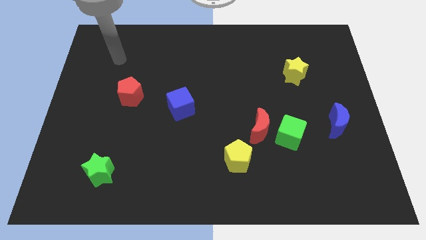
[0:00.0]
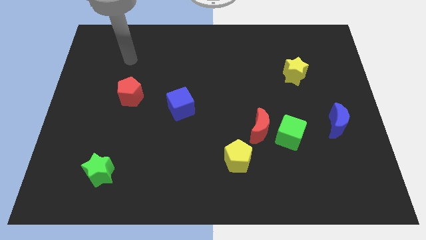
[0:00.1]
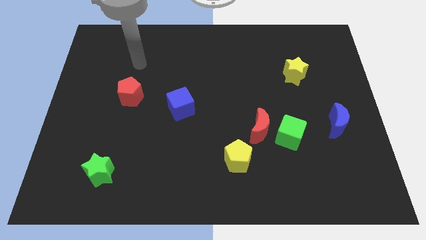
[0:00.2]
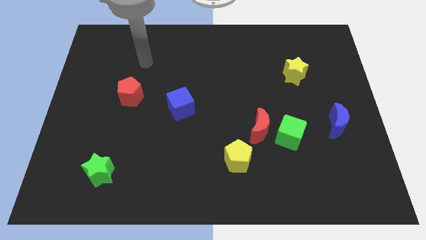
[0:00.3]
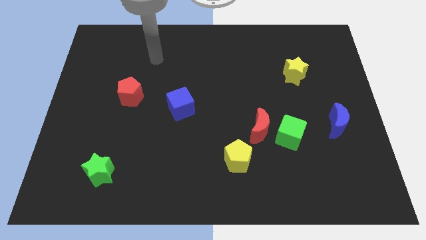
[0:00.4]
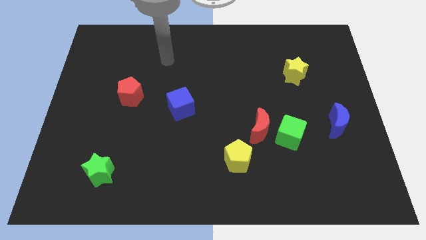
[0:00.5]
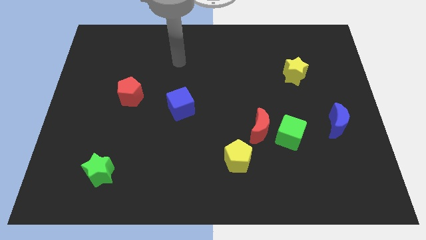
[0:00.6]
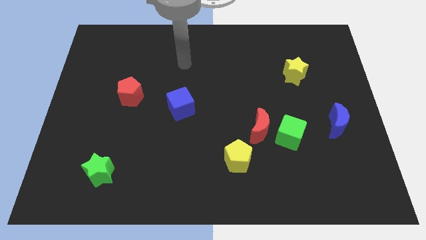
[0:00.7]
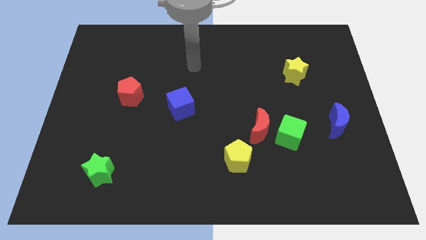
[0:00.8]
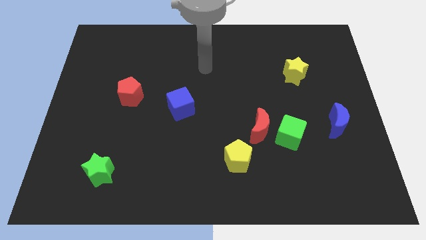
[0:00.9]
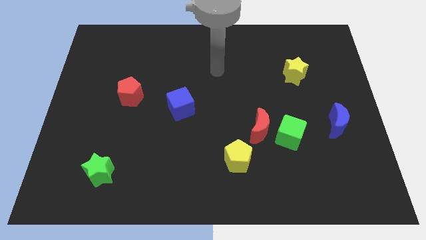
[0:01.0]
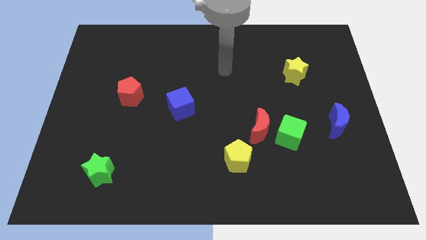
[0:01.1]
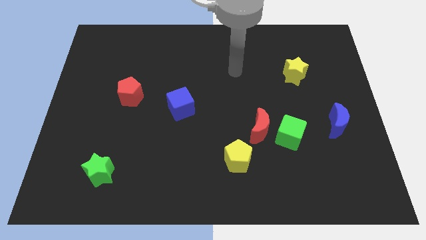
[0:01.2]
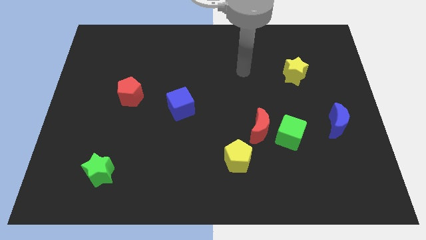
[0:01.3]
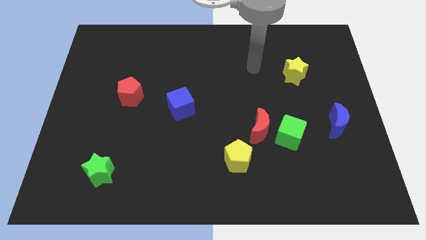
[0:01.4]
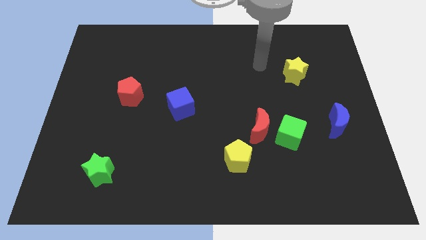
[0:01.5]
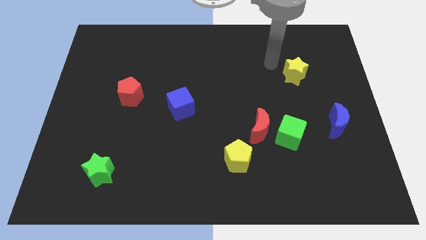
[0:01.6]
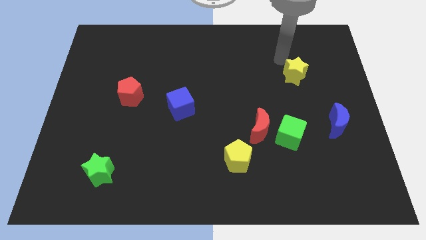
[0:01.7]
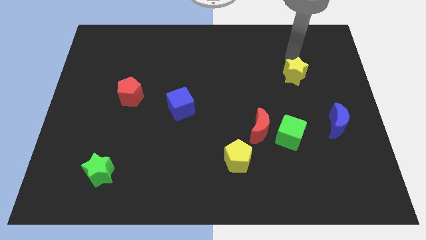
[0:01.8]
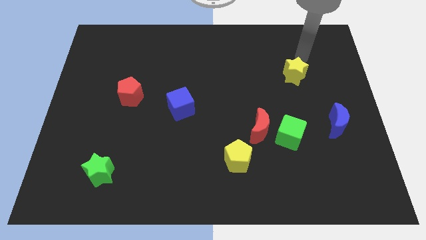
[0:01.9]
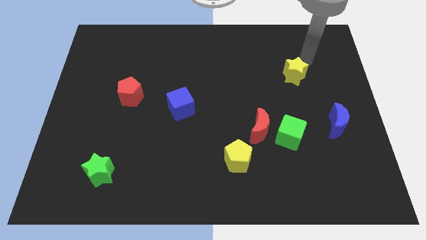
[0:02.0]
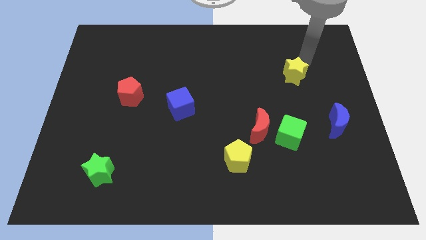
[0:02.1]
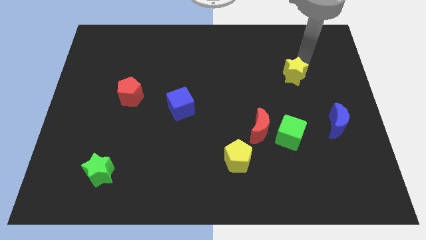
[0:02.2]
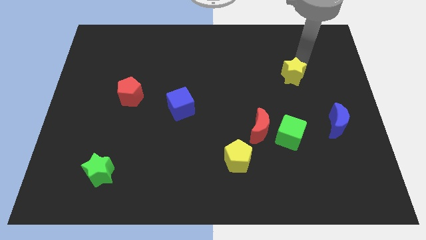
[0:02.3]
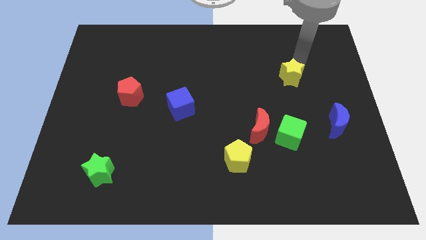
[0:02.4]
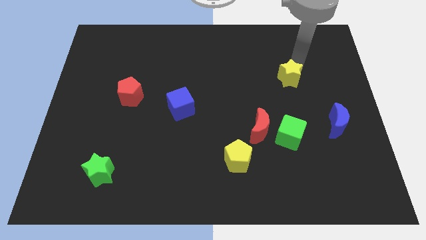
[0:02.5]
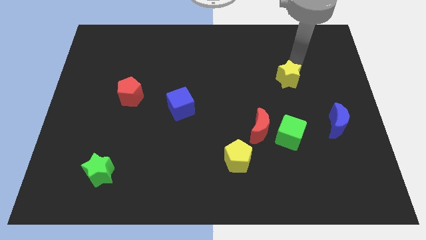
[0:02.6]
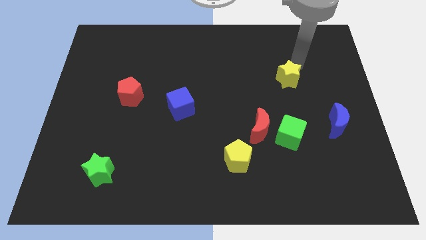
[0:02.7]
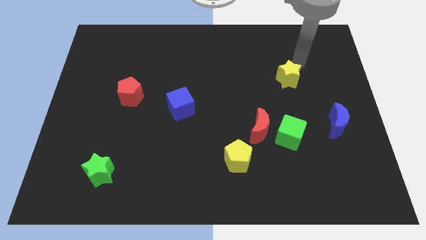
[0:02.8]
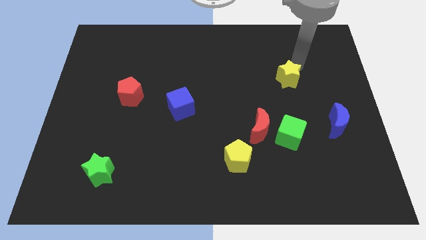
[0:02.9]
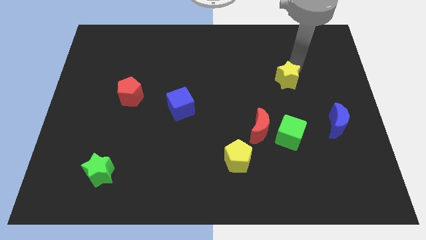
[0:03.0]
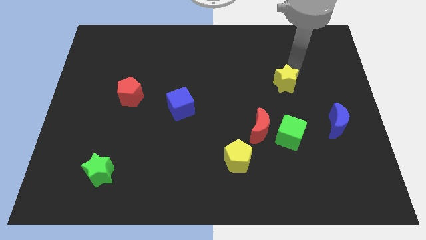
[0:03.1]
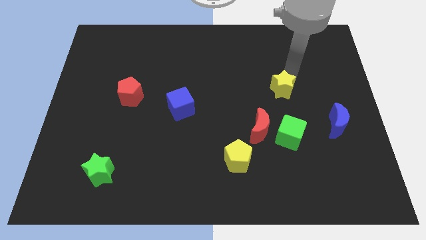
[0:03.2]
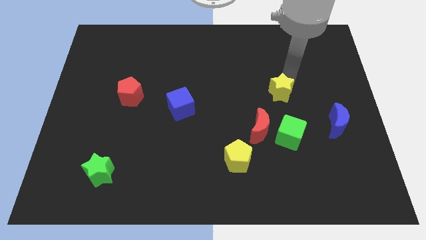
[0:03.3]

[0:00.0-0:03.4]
move the yellow star diagonally down and to the left a little bit

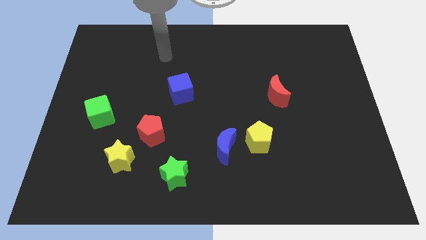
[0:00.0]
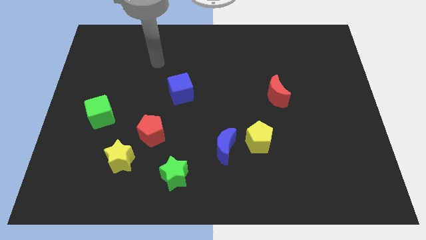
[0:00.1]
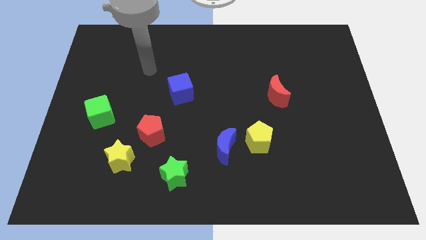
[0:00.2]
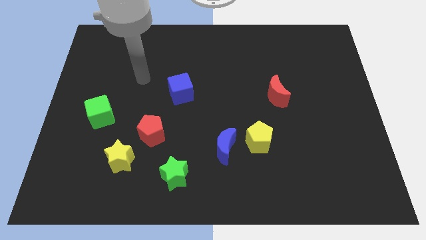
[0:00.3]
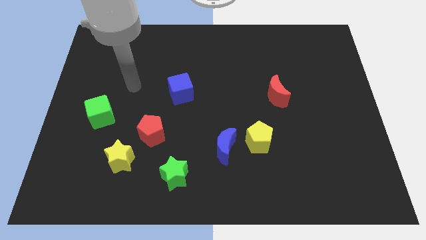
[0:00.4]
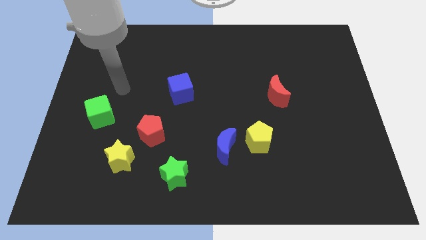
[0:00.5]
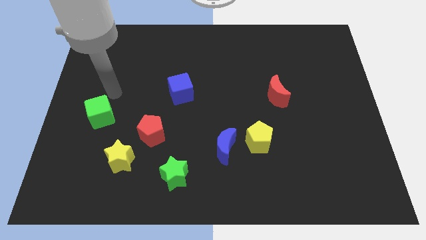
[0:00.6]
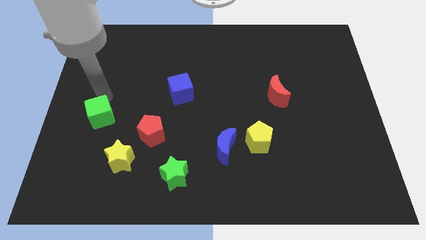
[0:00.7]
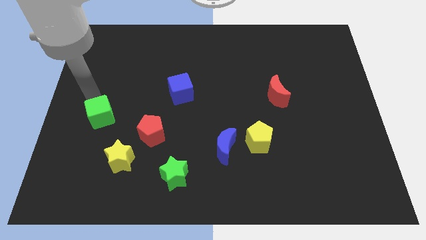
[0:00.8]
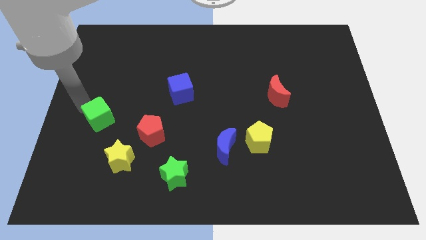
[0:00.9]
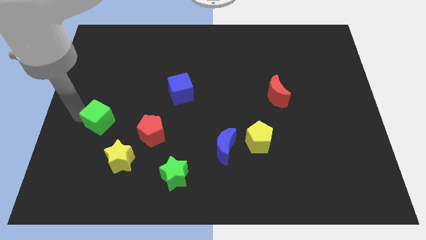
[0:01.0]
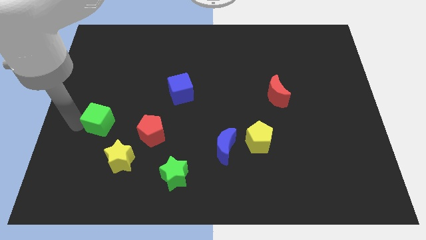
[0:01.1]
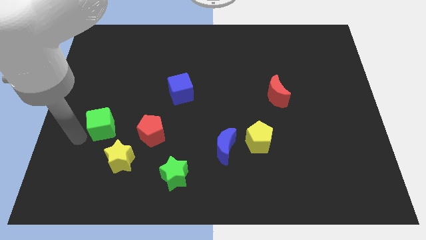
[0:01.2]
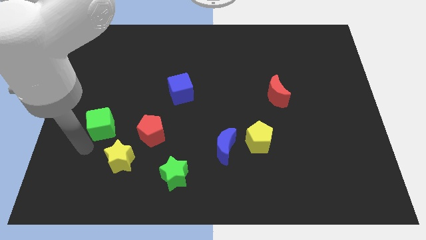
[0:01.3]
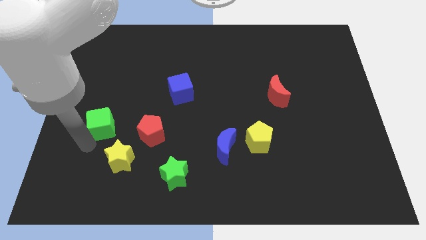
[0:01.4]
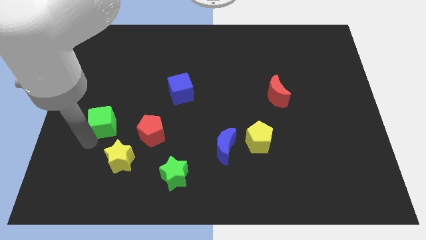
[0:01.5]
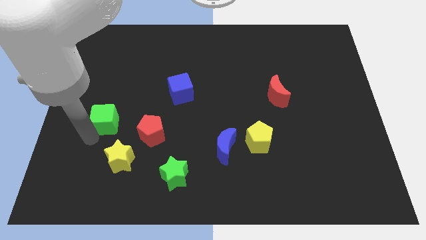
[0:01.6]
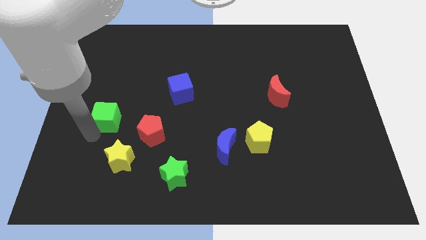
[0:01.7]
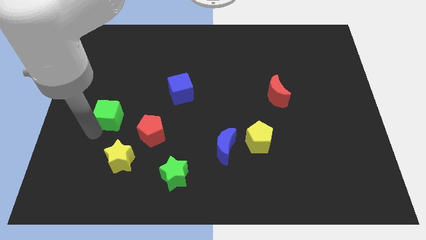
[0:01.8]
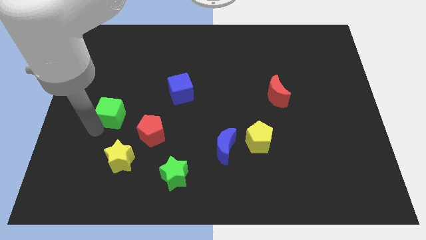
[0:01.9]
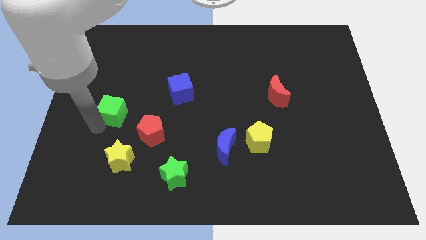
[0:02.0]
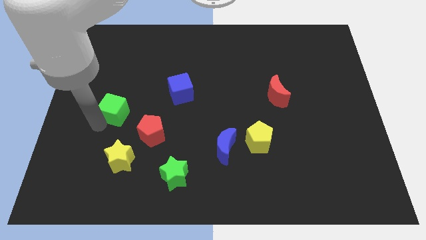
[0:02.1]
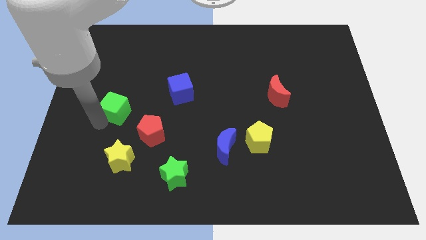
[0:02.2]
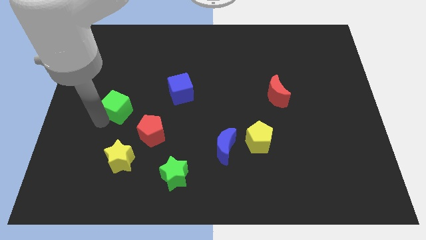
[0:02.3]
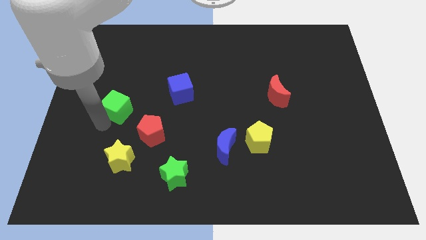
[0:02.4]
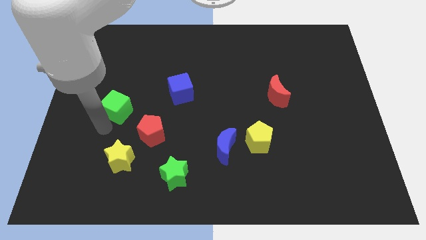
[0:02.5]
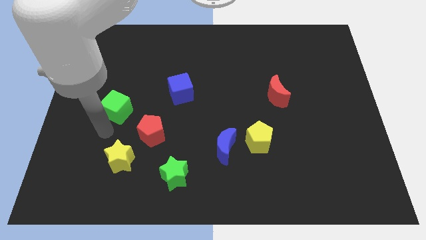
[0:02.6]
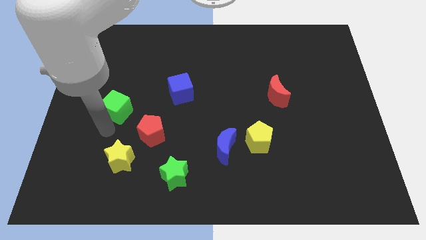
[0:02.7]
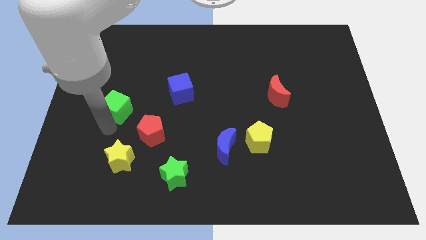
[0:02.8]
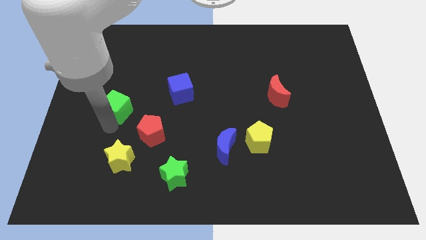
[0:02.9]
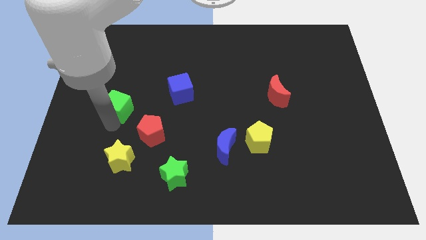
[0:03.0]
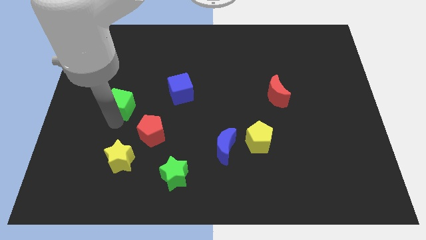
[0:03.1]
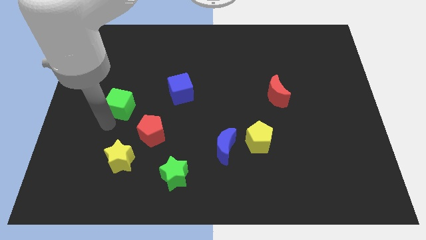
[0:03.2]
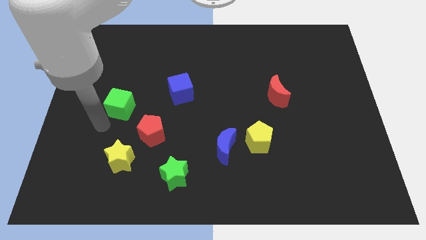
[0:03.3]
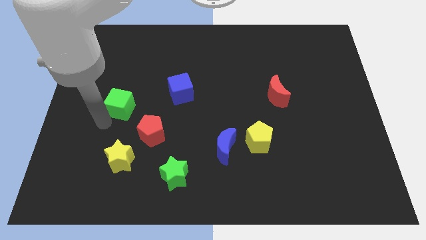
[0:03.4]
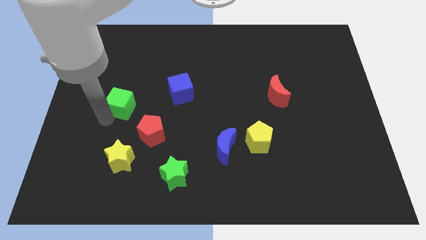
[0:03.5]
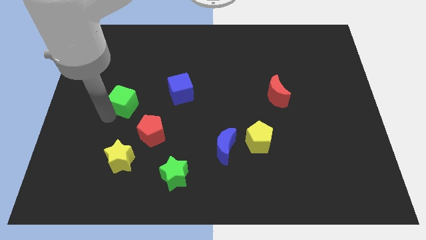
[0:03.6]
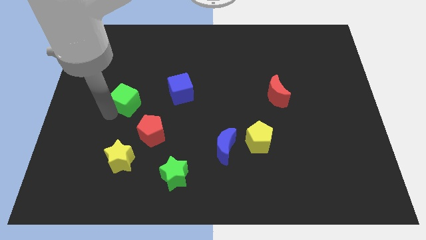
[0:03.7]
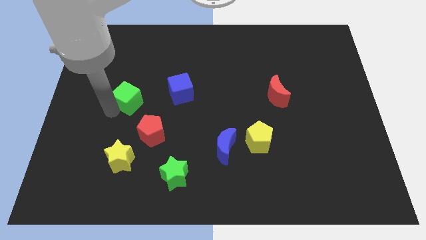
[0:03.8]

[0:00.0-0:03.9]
push the green cube a bit up and then to the right

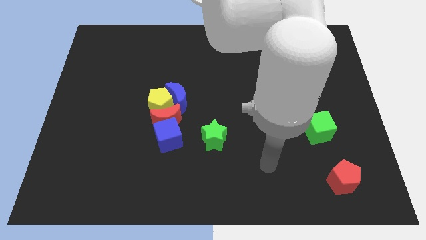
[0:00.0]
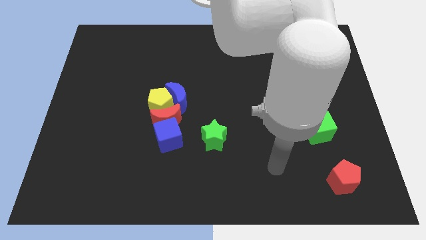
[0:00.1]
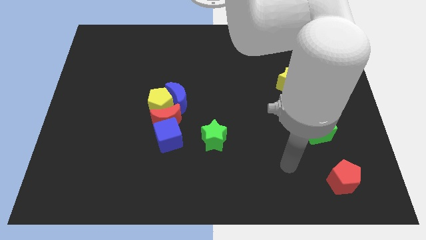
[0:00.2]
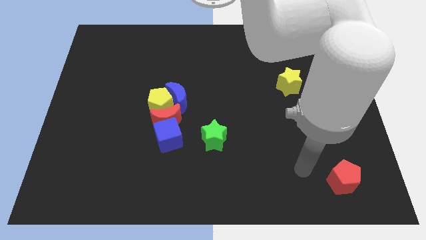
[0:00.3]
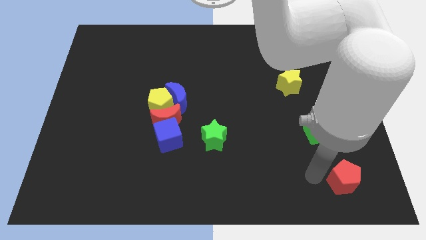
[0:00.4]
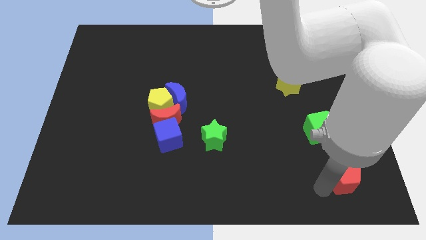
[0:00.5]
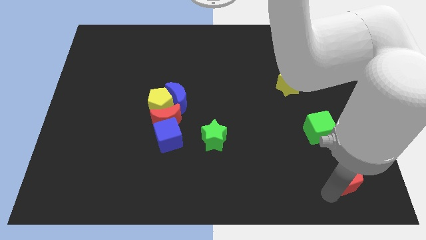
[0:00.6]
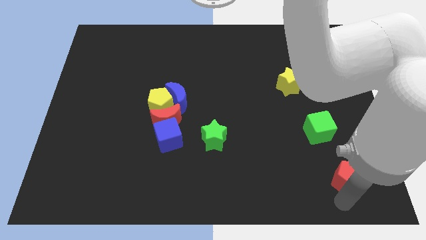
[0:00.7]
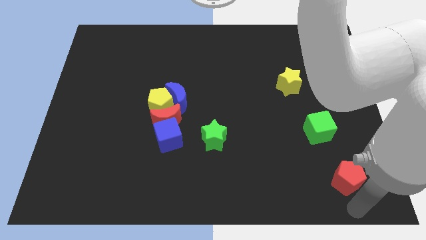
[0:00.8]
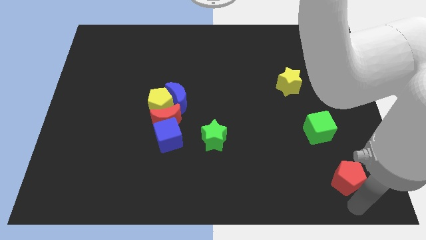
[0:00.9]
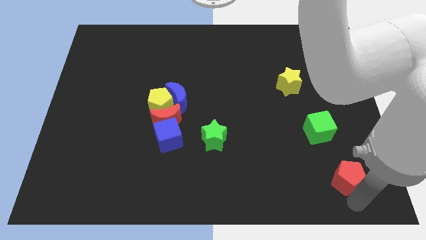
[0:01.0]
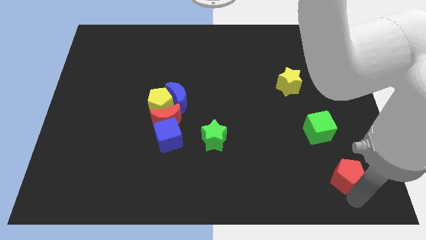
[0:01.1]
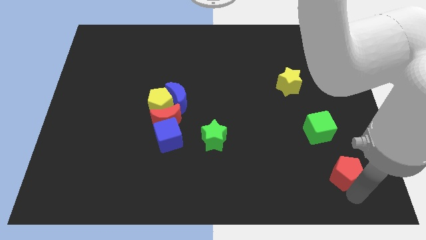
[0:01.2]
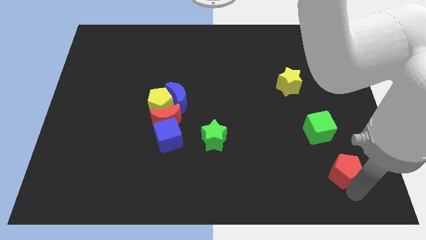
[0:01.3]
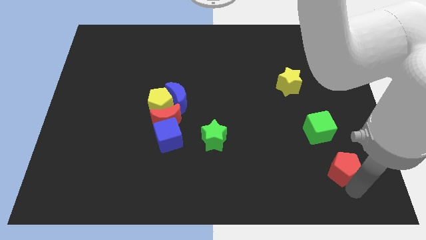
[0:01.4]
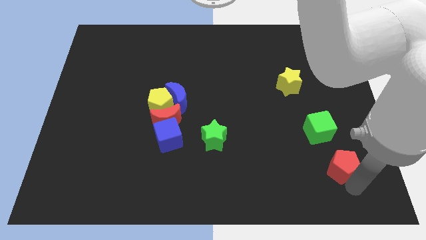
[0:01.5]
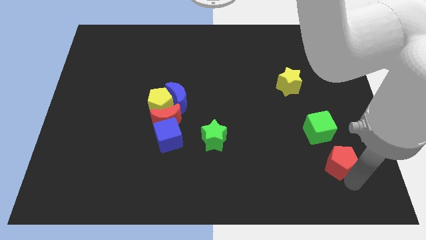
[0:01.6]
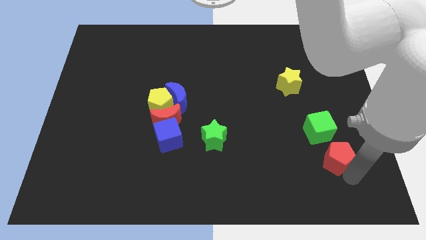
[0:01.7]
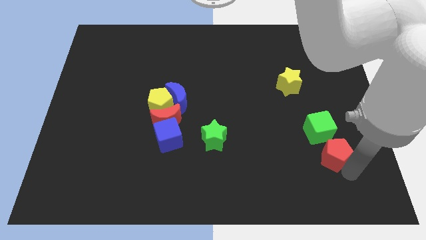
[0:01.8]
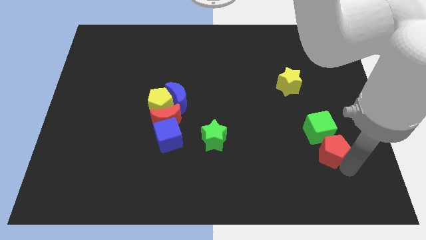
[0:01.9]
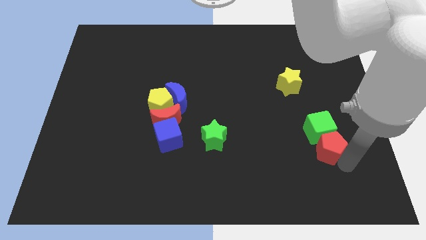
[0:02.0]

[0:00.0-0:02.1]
slightly push the red pentagon up
